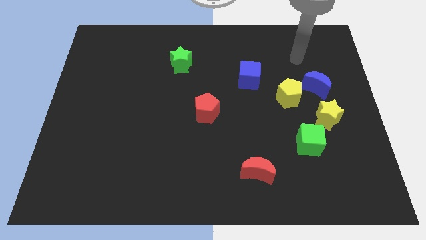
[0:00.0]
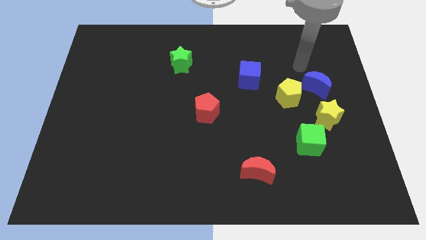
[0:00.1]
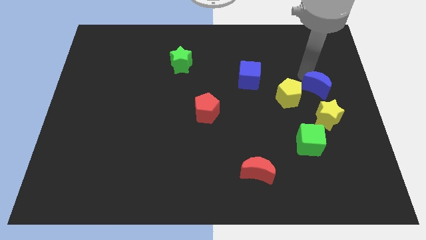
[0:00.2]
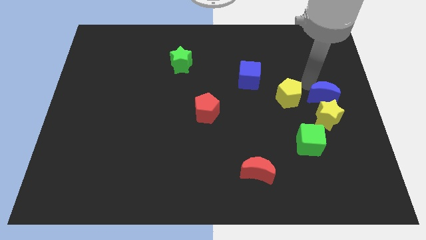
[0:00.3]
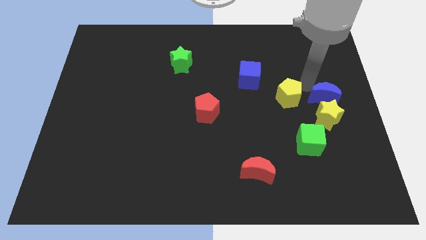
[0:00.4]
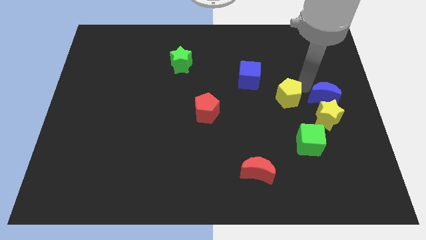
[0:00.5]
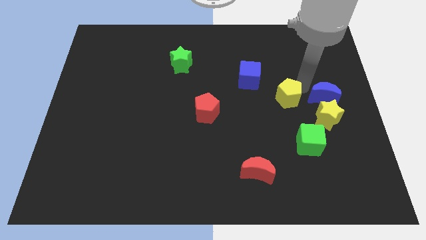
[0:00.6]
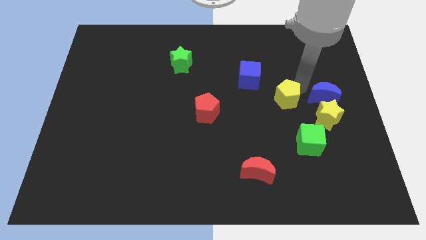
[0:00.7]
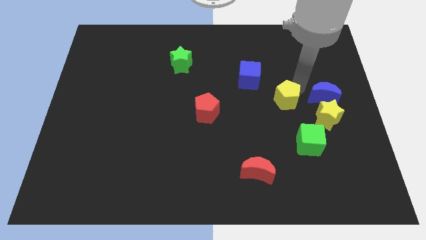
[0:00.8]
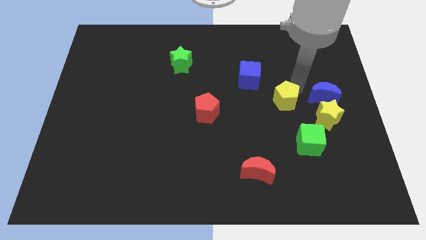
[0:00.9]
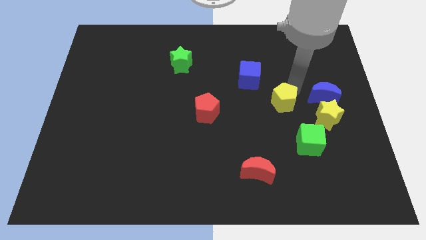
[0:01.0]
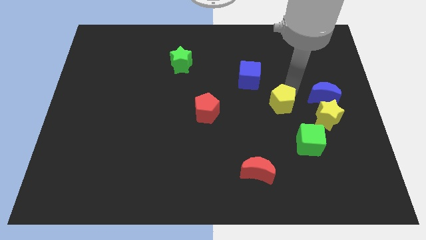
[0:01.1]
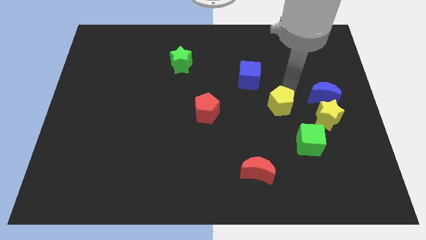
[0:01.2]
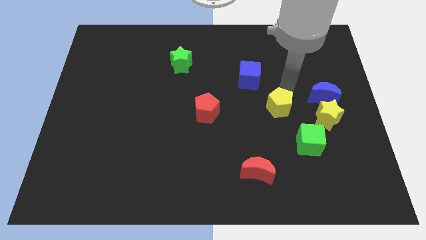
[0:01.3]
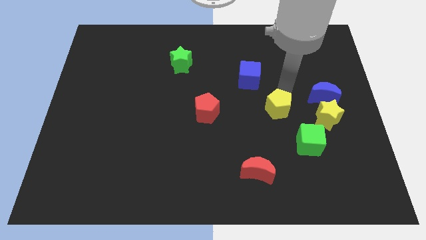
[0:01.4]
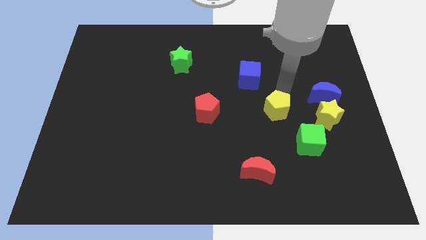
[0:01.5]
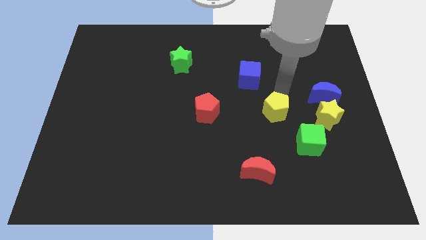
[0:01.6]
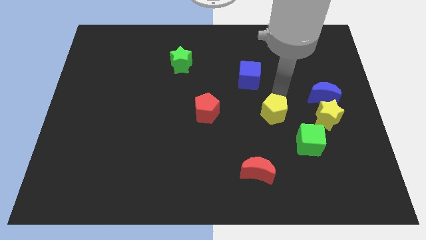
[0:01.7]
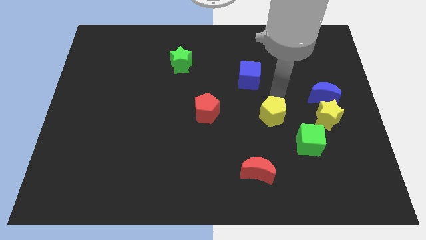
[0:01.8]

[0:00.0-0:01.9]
slightly move the yellow pentagon down and to the left diagonally

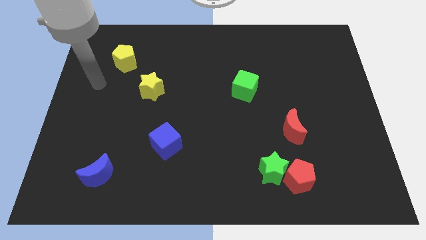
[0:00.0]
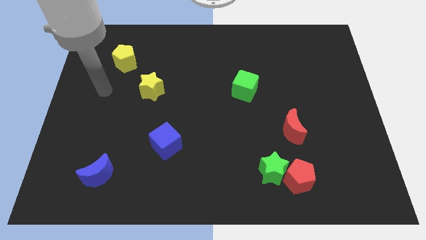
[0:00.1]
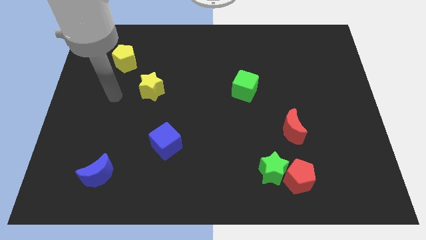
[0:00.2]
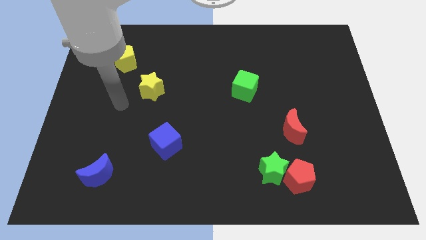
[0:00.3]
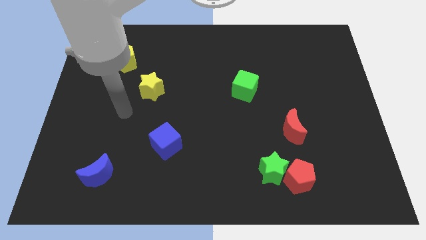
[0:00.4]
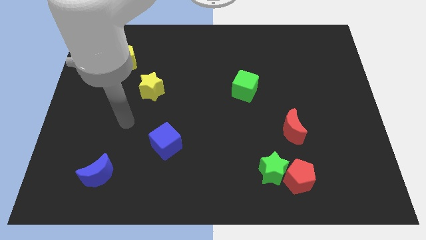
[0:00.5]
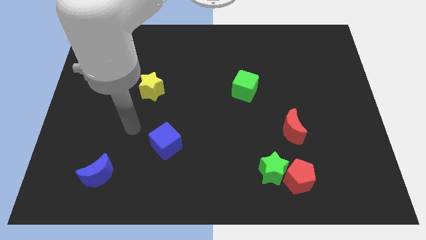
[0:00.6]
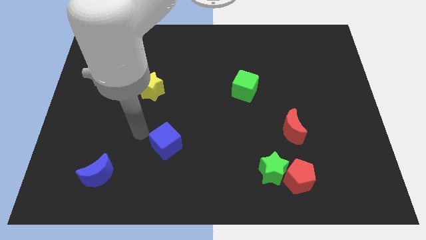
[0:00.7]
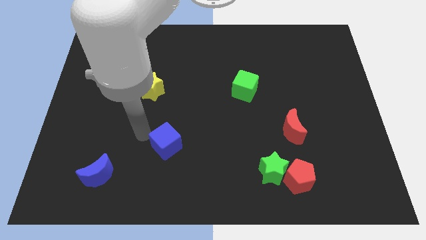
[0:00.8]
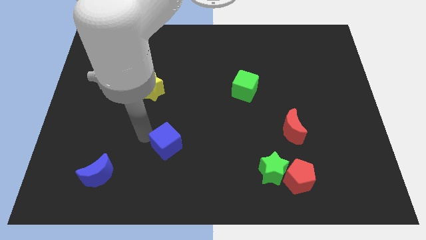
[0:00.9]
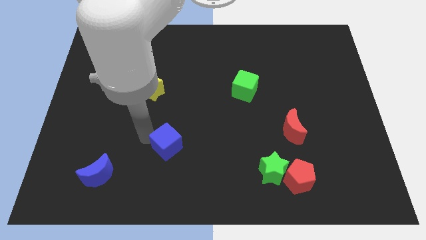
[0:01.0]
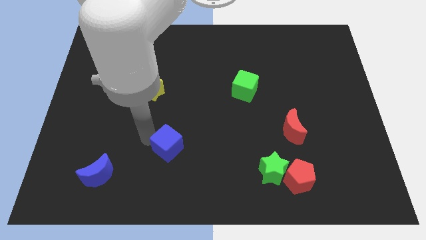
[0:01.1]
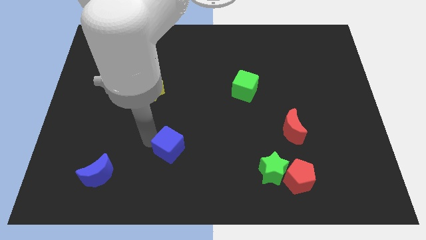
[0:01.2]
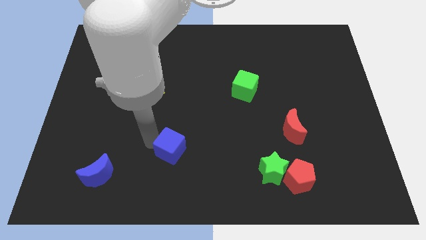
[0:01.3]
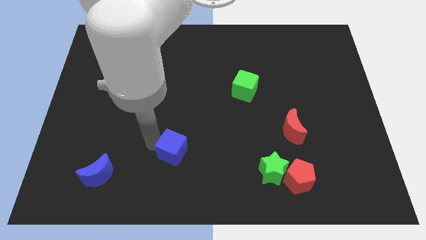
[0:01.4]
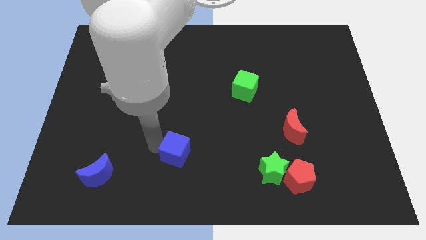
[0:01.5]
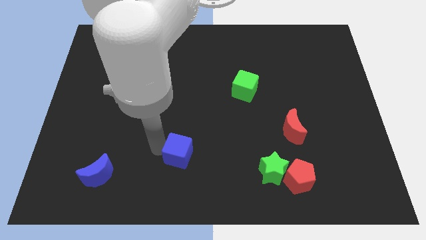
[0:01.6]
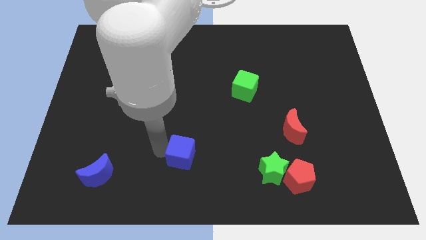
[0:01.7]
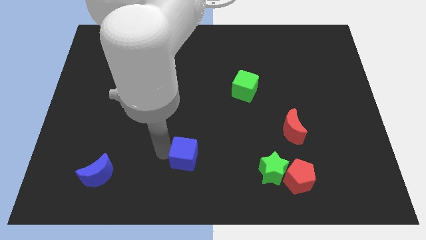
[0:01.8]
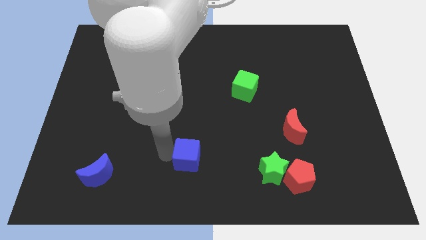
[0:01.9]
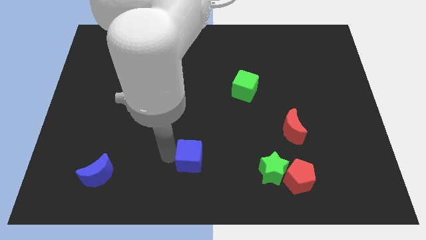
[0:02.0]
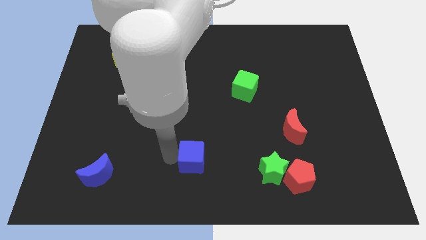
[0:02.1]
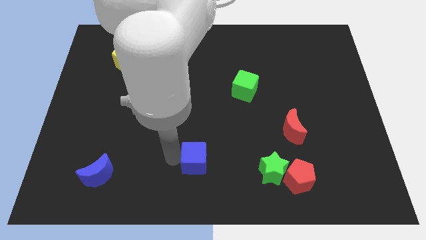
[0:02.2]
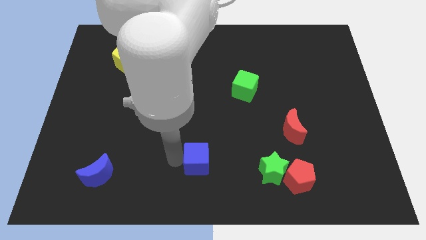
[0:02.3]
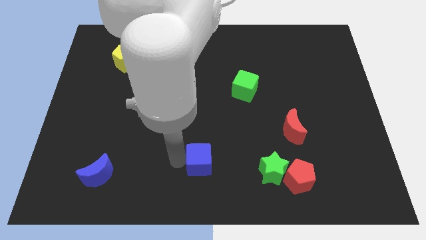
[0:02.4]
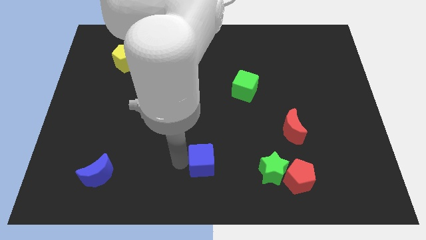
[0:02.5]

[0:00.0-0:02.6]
push the blue cube a bit right

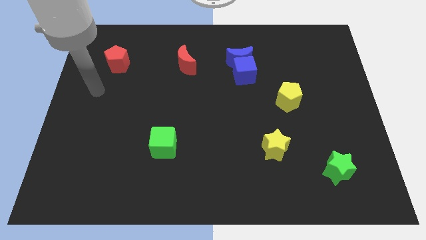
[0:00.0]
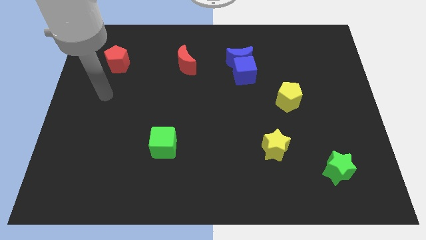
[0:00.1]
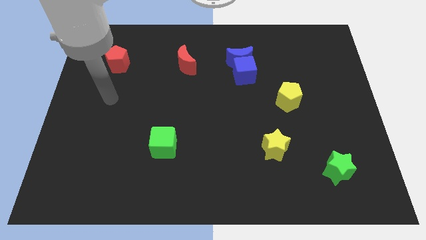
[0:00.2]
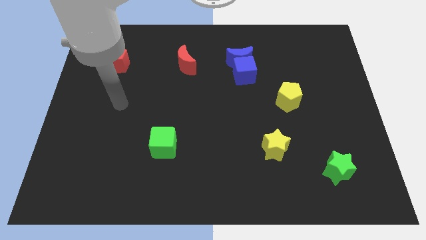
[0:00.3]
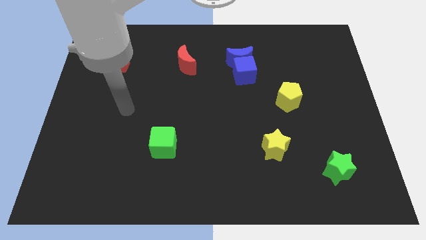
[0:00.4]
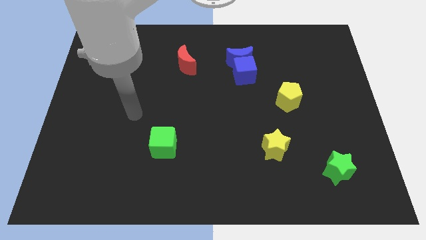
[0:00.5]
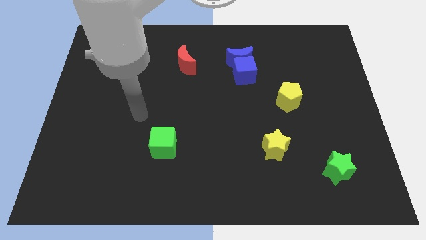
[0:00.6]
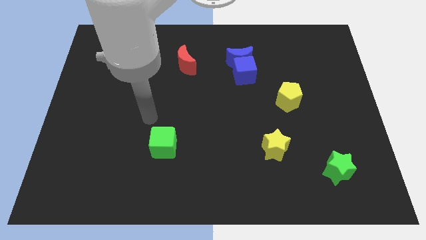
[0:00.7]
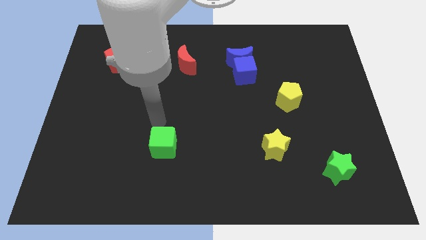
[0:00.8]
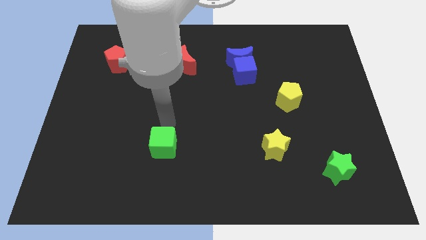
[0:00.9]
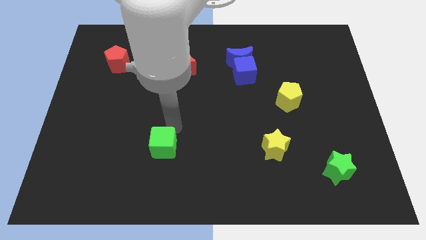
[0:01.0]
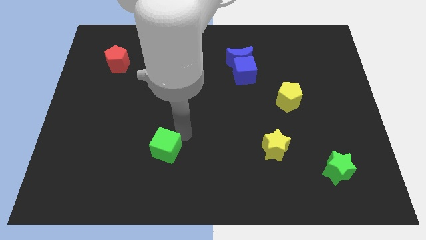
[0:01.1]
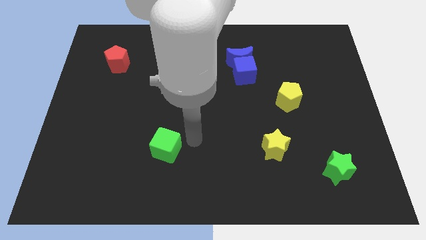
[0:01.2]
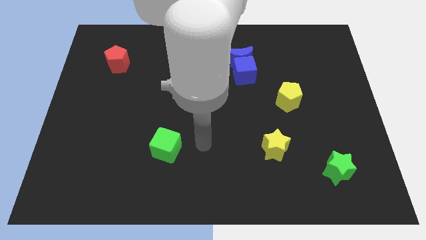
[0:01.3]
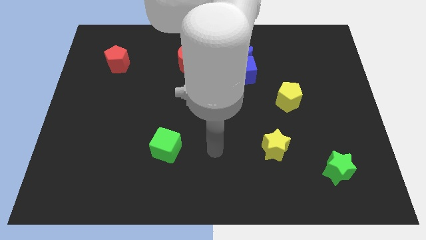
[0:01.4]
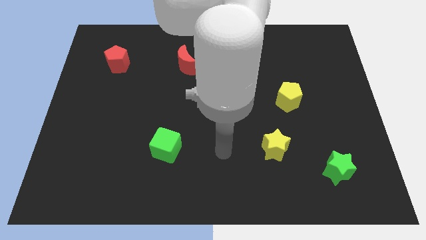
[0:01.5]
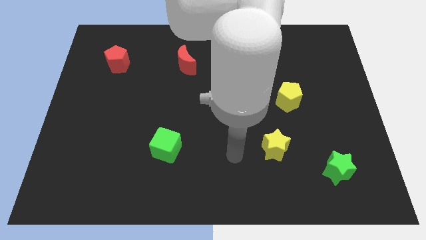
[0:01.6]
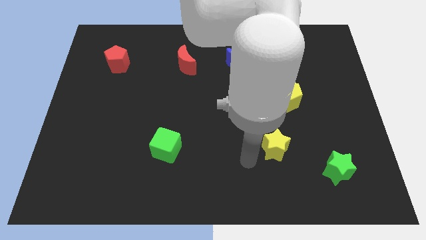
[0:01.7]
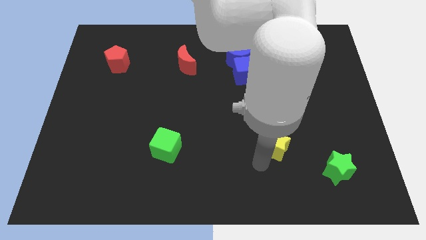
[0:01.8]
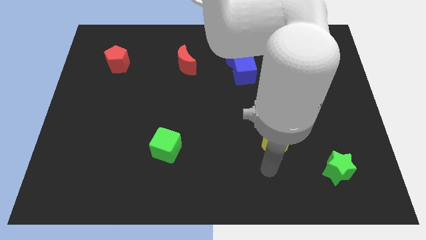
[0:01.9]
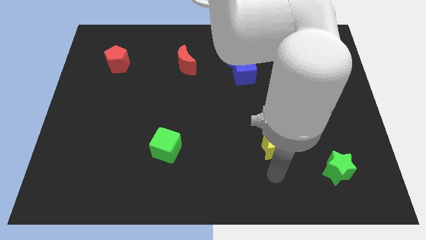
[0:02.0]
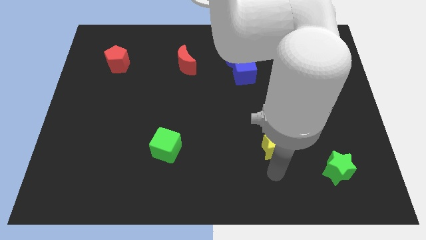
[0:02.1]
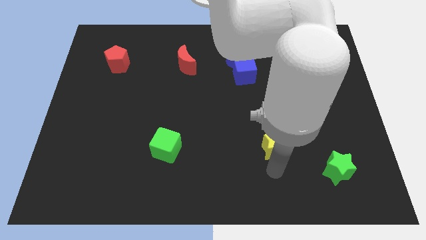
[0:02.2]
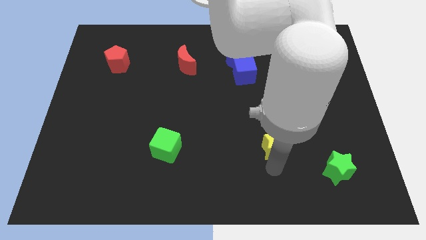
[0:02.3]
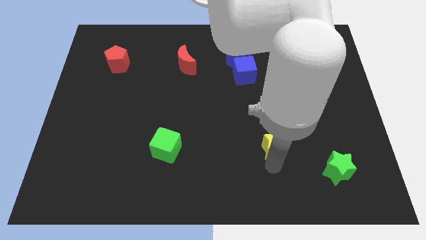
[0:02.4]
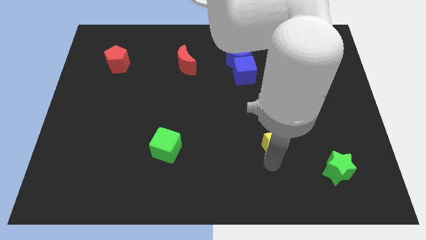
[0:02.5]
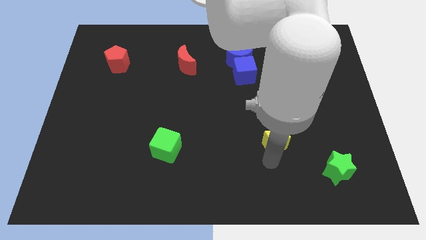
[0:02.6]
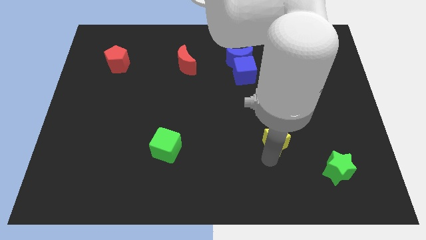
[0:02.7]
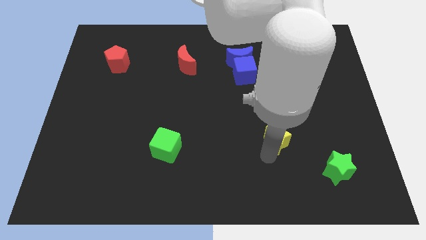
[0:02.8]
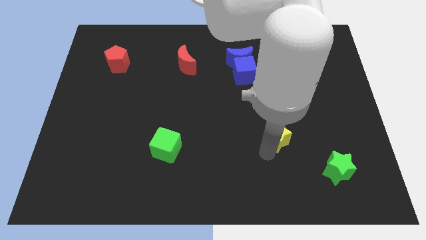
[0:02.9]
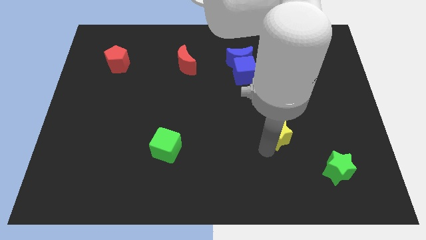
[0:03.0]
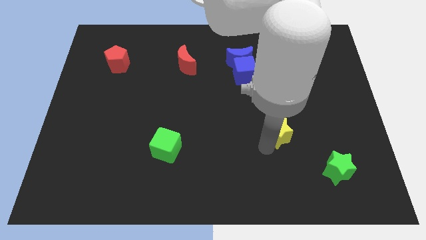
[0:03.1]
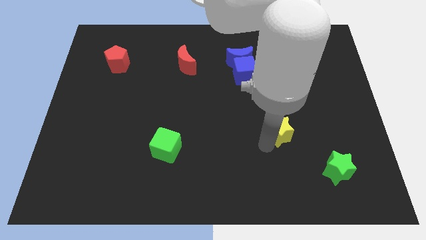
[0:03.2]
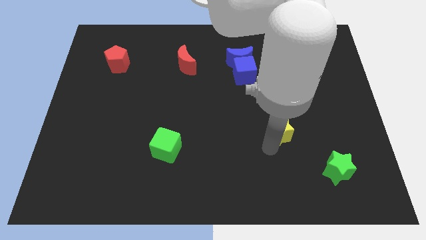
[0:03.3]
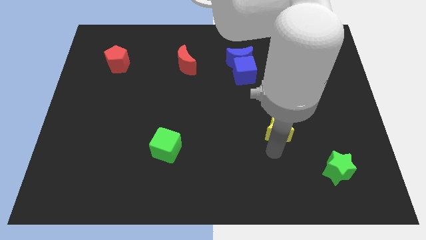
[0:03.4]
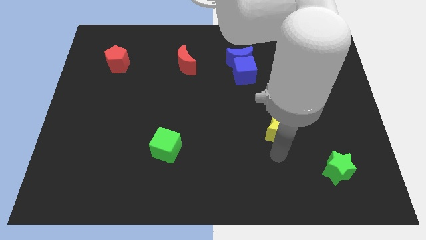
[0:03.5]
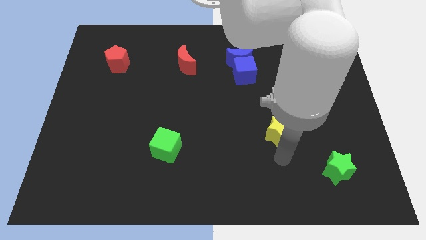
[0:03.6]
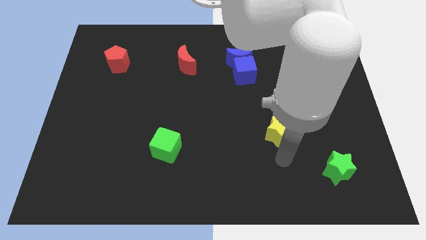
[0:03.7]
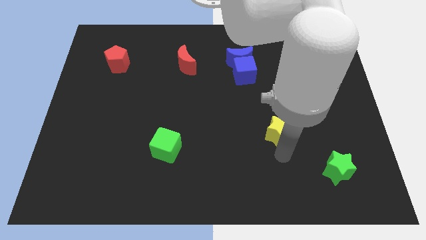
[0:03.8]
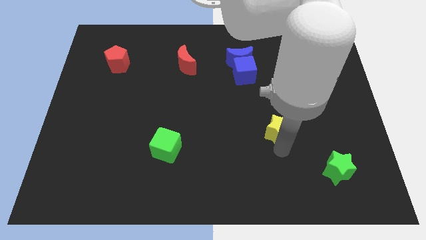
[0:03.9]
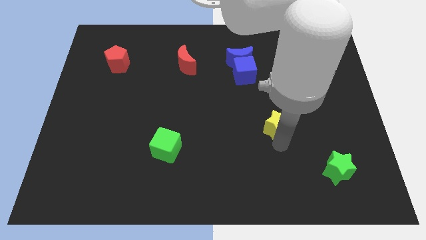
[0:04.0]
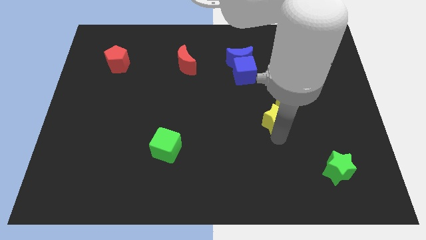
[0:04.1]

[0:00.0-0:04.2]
move the yellow star upwards a bit
